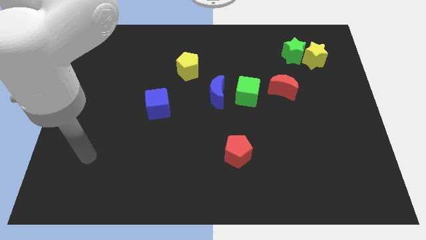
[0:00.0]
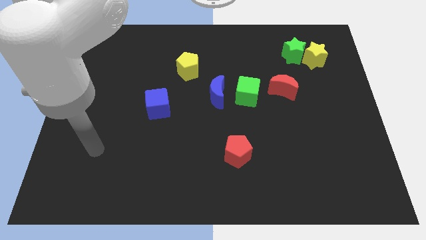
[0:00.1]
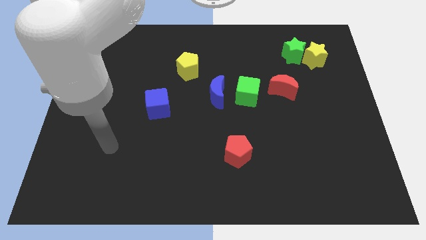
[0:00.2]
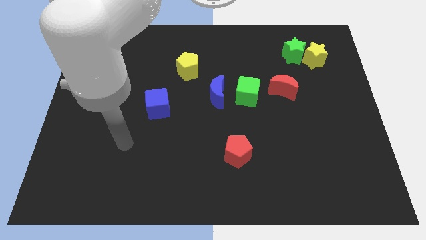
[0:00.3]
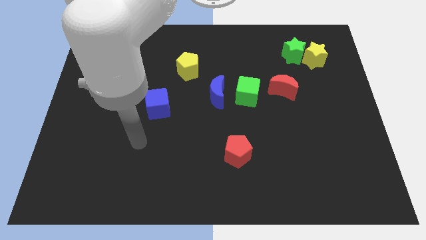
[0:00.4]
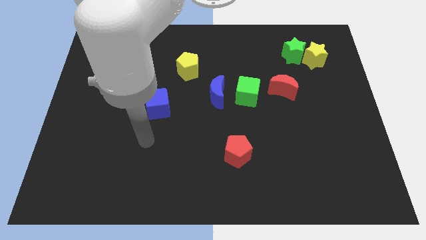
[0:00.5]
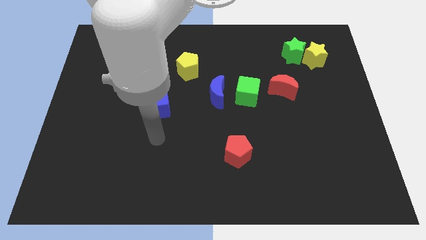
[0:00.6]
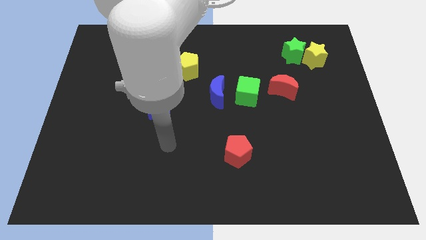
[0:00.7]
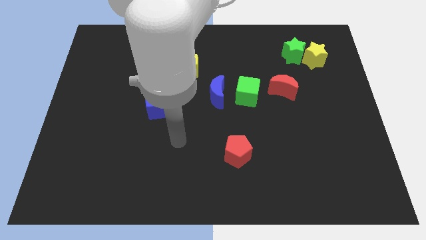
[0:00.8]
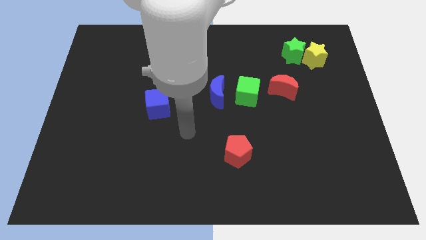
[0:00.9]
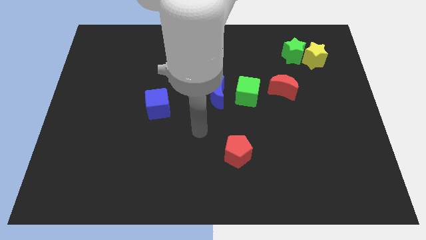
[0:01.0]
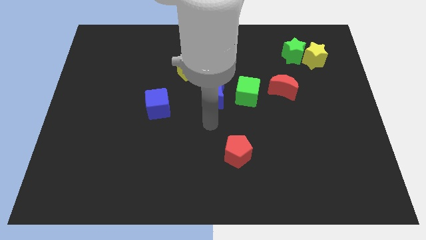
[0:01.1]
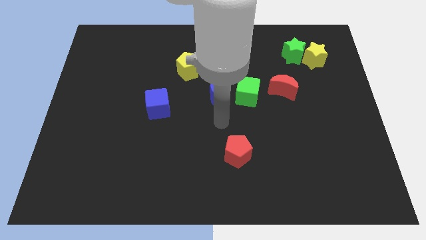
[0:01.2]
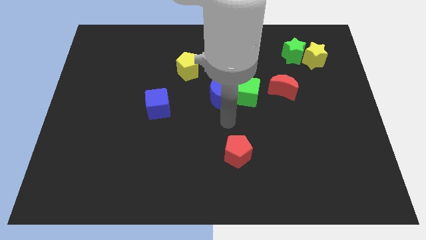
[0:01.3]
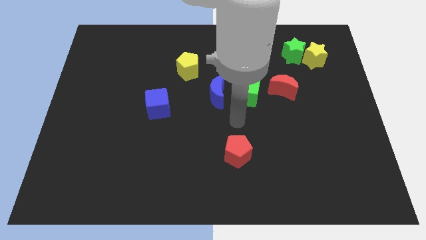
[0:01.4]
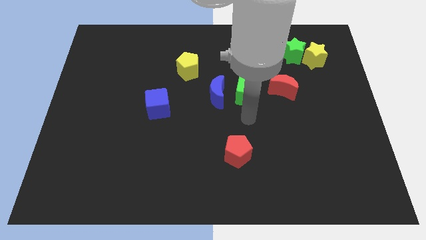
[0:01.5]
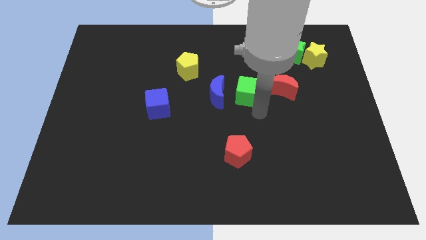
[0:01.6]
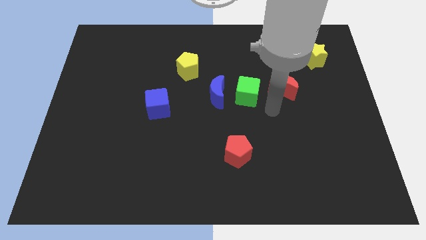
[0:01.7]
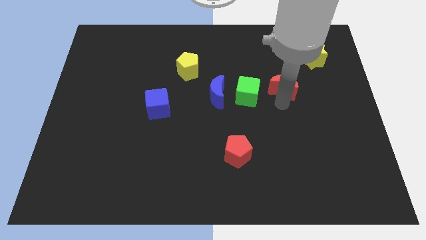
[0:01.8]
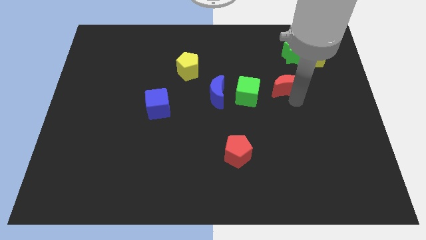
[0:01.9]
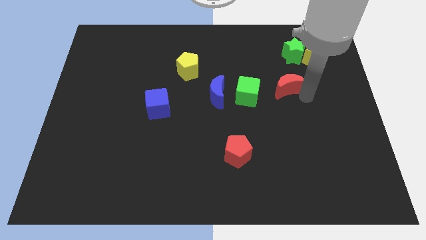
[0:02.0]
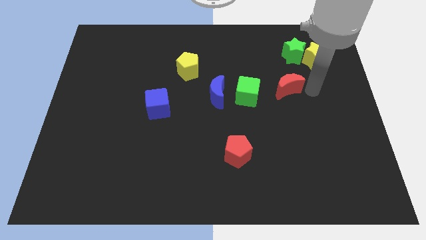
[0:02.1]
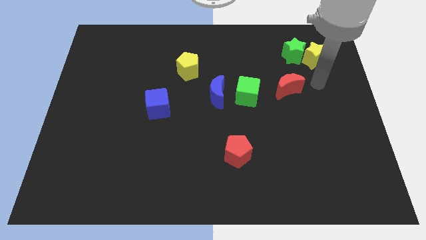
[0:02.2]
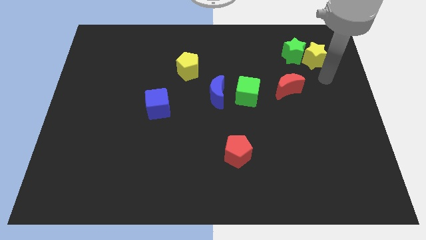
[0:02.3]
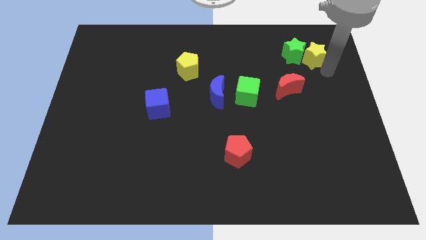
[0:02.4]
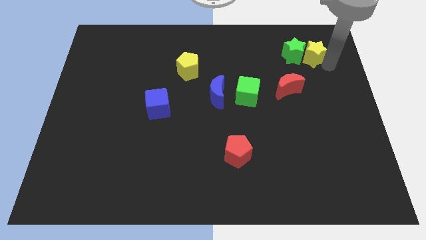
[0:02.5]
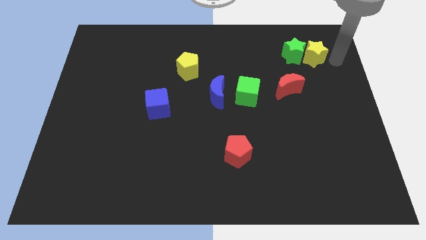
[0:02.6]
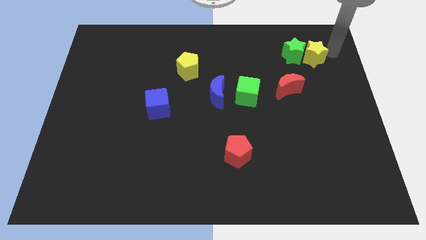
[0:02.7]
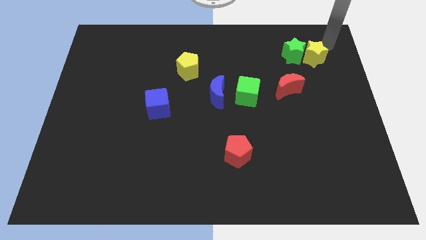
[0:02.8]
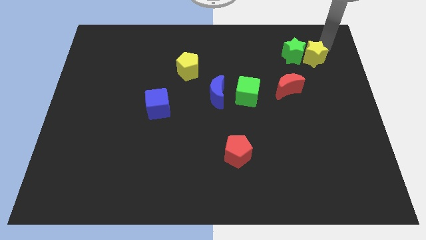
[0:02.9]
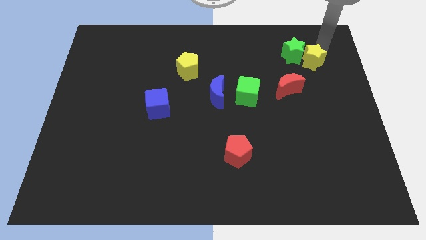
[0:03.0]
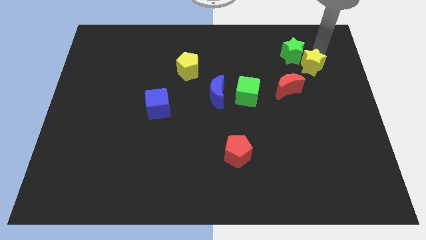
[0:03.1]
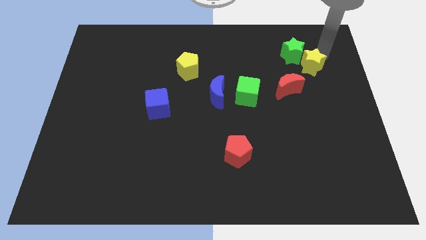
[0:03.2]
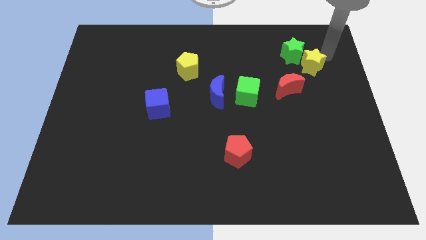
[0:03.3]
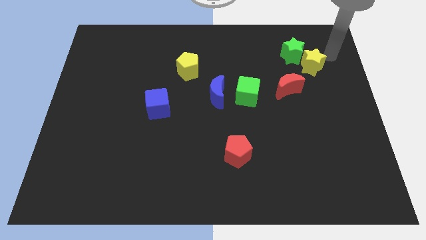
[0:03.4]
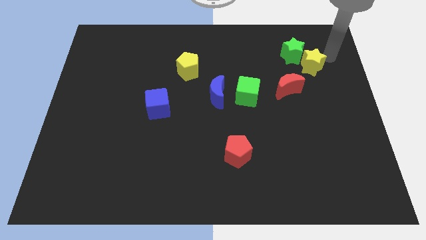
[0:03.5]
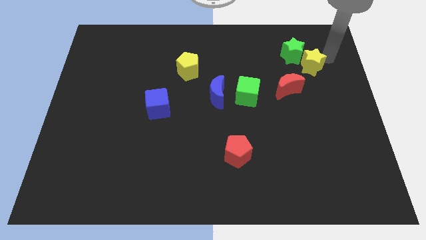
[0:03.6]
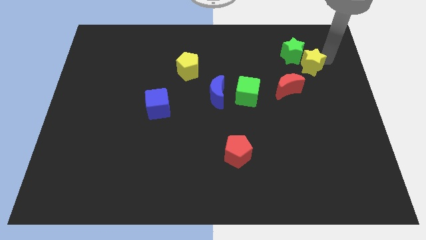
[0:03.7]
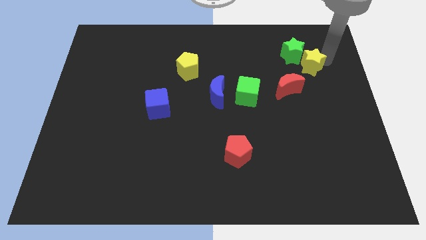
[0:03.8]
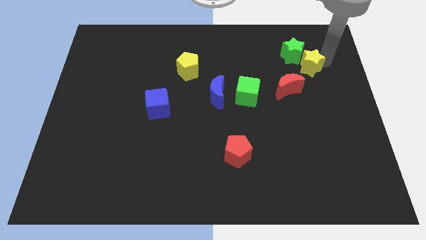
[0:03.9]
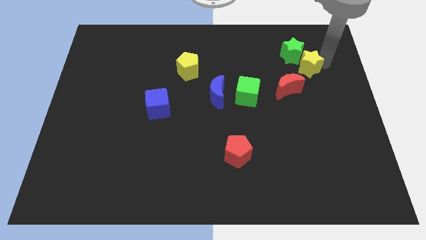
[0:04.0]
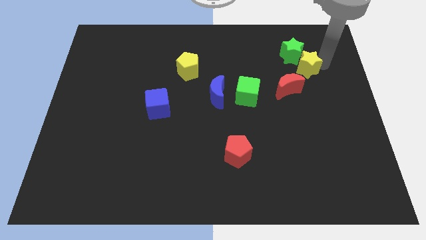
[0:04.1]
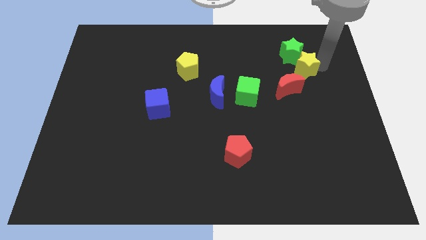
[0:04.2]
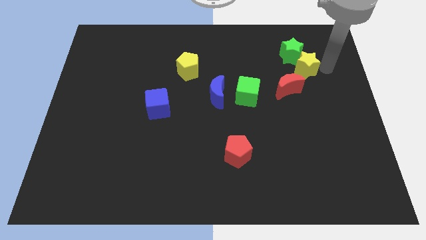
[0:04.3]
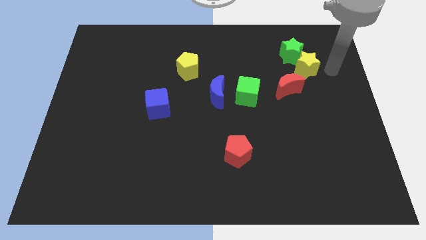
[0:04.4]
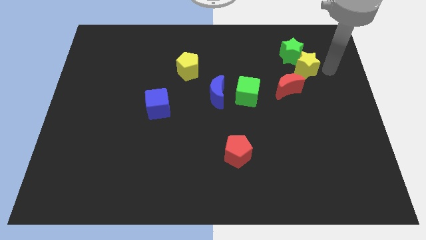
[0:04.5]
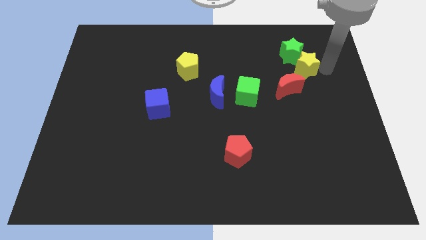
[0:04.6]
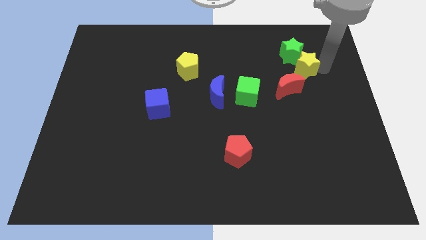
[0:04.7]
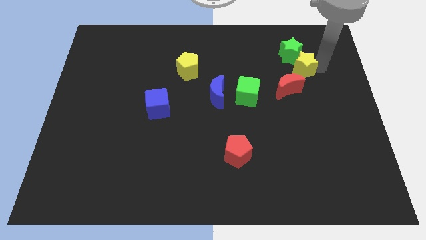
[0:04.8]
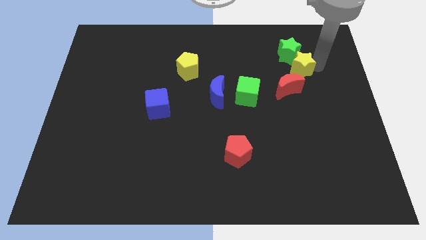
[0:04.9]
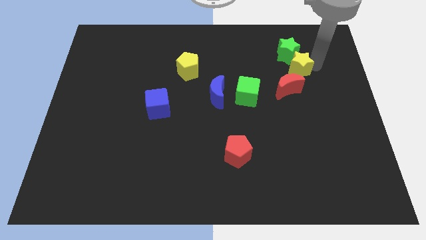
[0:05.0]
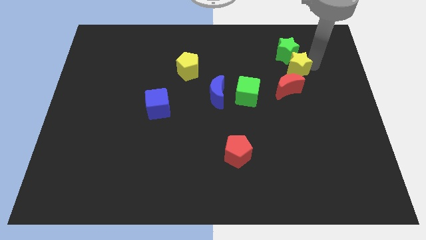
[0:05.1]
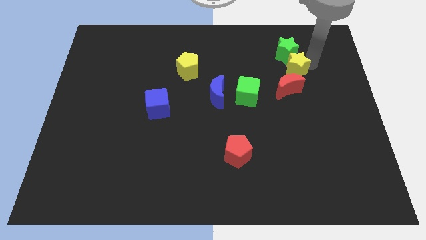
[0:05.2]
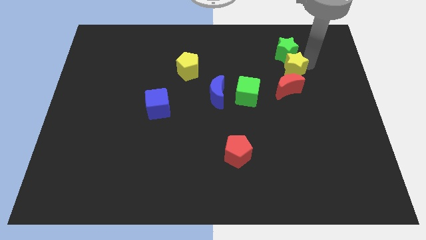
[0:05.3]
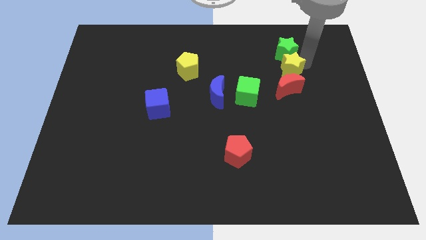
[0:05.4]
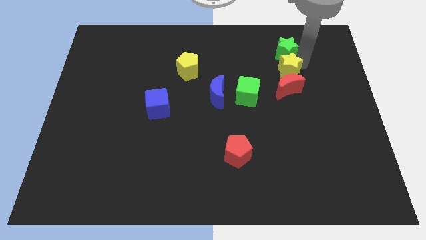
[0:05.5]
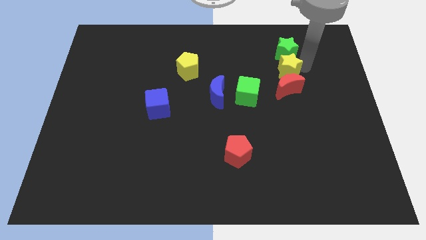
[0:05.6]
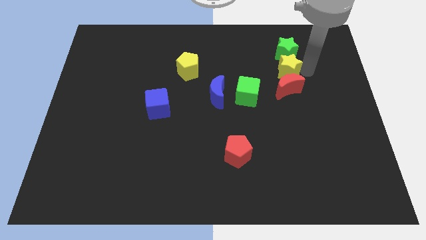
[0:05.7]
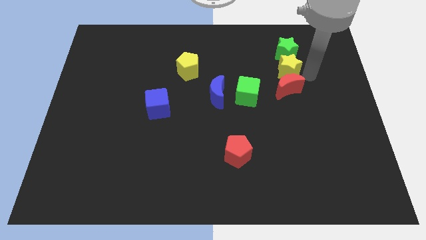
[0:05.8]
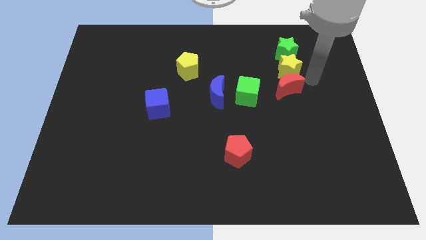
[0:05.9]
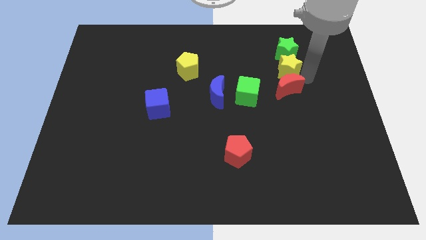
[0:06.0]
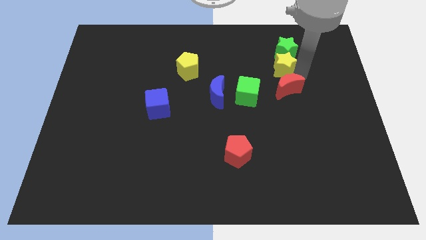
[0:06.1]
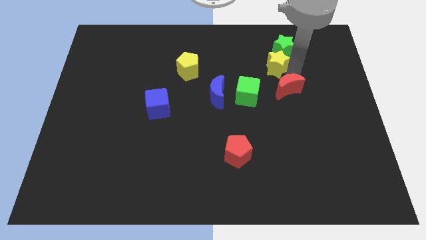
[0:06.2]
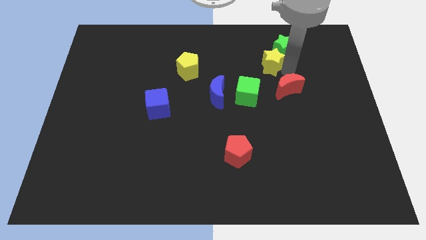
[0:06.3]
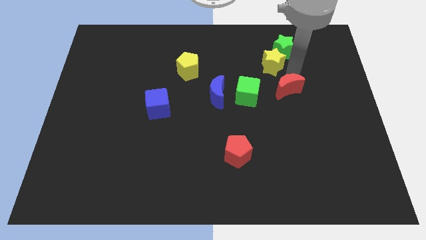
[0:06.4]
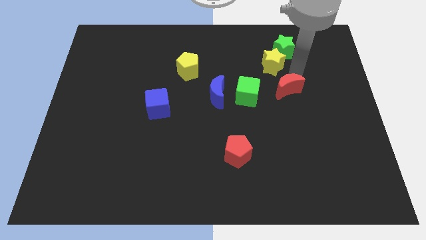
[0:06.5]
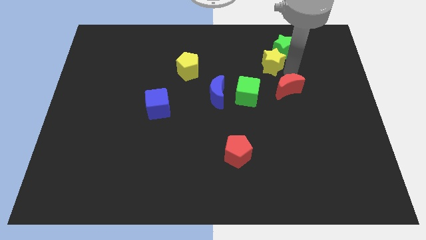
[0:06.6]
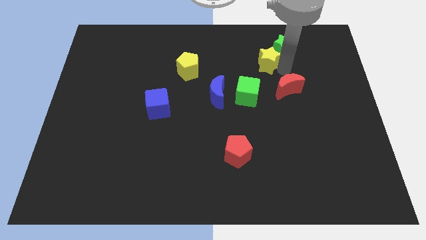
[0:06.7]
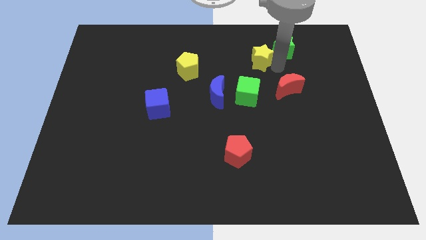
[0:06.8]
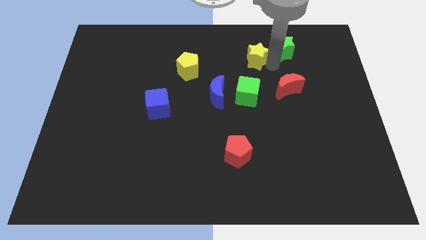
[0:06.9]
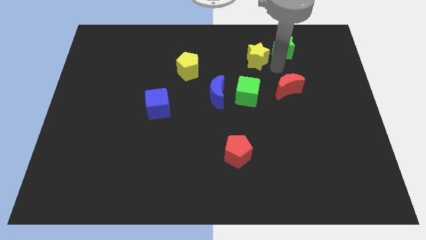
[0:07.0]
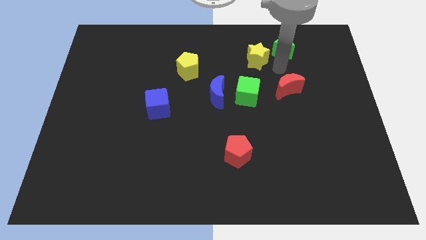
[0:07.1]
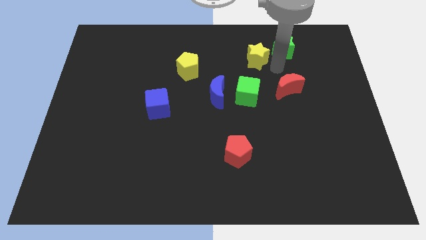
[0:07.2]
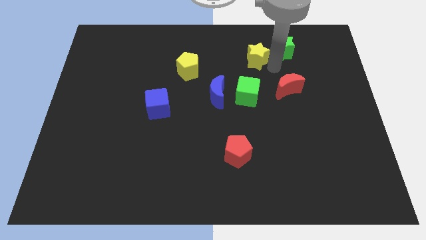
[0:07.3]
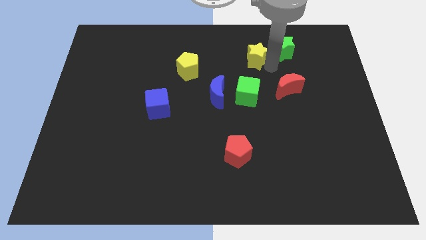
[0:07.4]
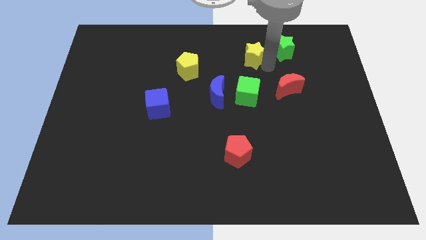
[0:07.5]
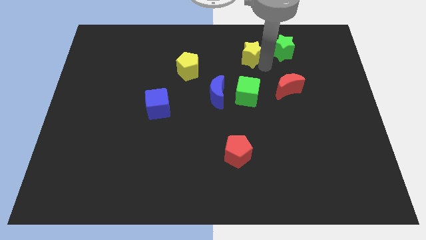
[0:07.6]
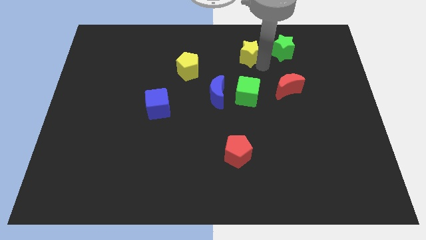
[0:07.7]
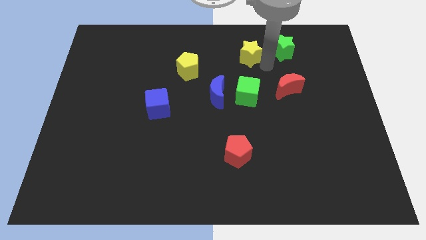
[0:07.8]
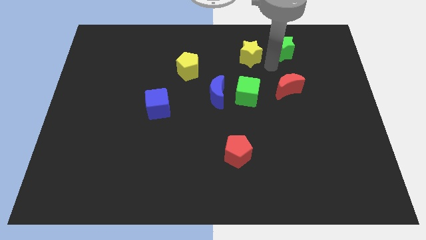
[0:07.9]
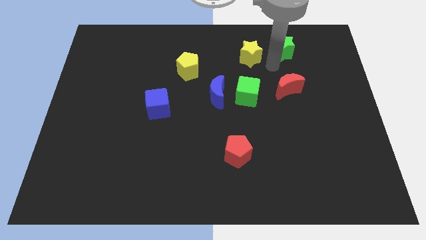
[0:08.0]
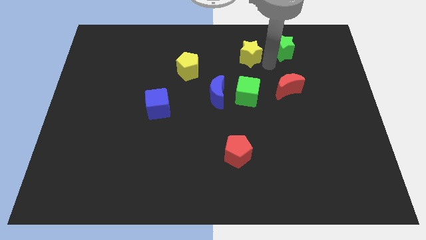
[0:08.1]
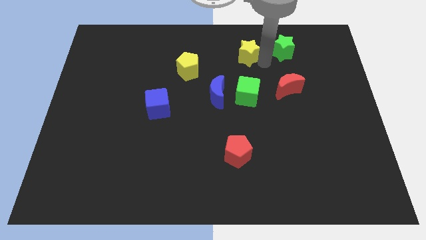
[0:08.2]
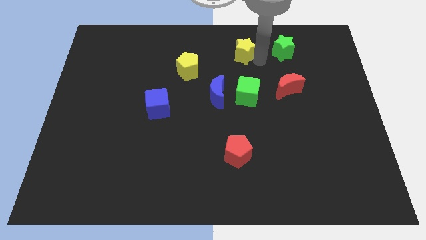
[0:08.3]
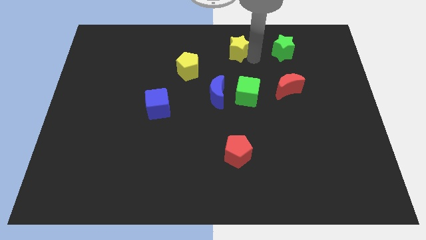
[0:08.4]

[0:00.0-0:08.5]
move the yellow star to the top
